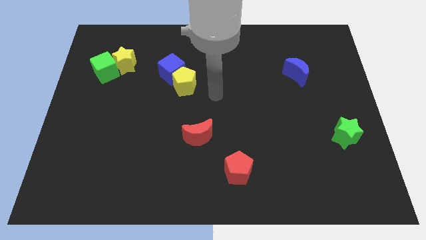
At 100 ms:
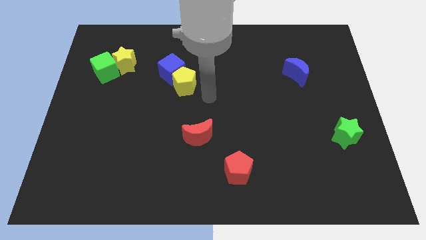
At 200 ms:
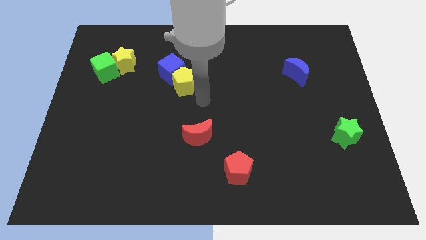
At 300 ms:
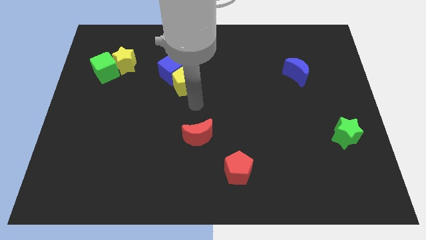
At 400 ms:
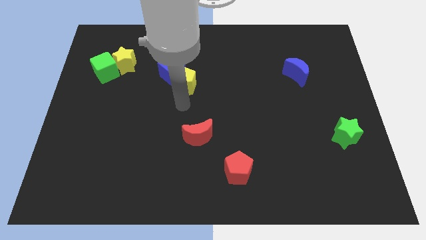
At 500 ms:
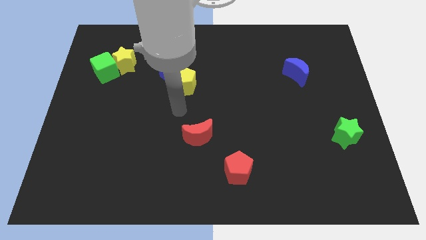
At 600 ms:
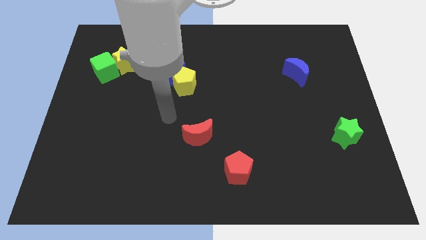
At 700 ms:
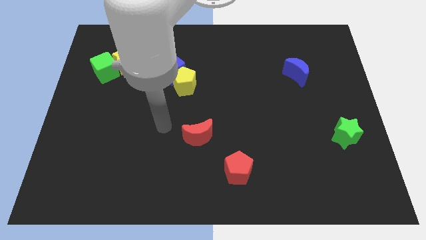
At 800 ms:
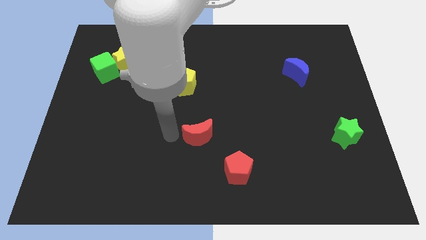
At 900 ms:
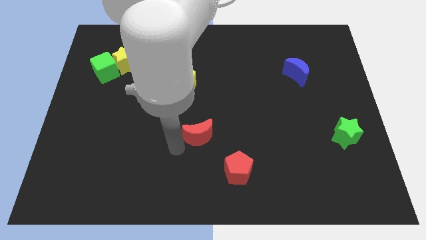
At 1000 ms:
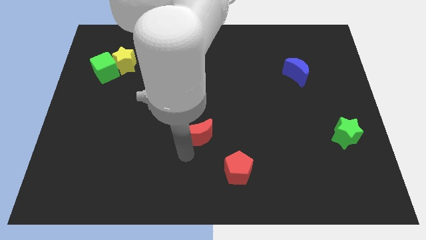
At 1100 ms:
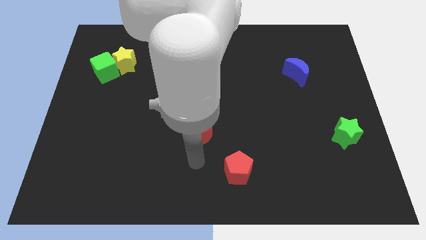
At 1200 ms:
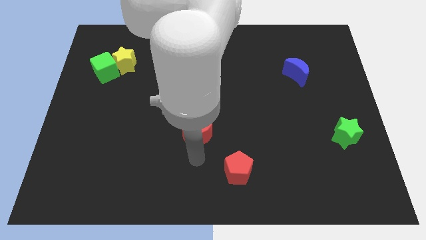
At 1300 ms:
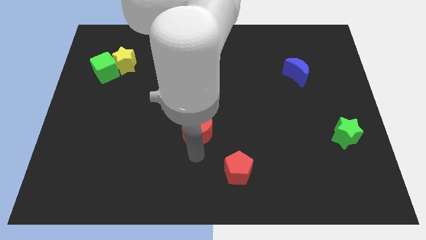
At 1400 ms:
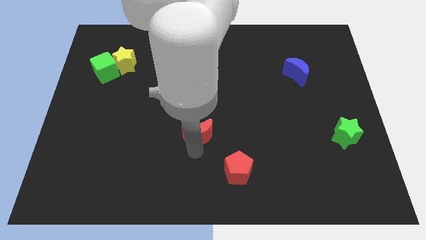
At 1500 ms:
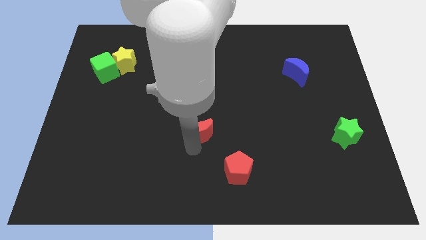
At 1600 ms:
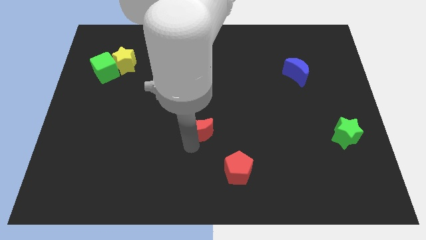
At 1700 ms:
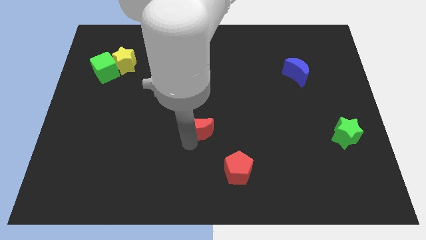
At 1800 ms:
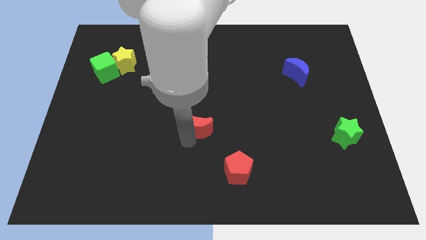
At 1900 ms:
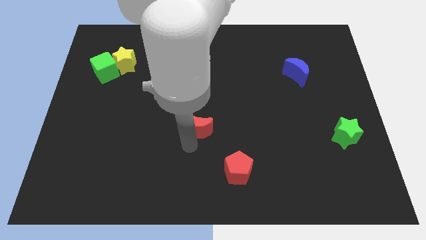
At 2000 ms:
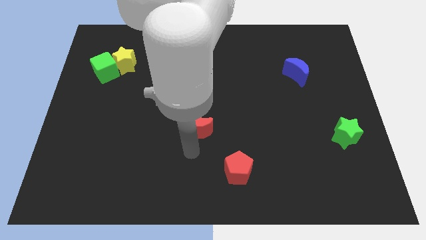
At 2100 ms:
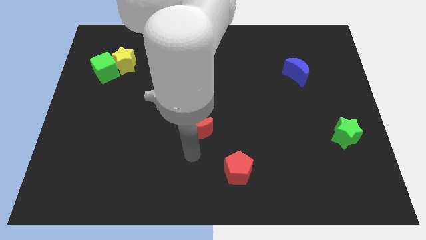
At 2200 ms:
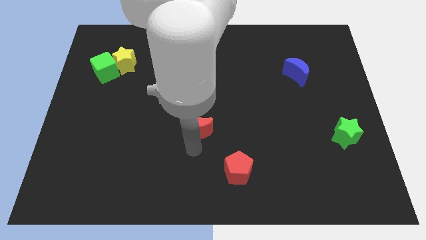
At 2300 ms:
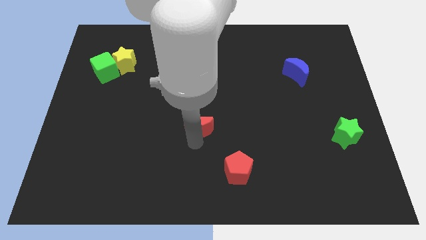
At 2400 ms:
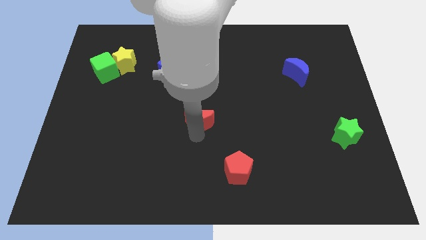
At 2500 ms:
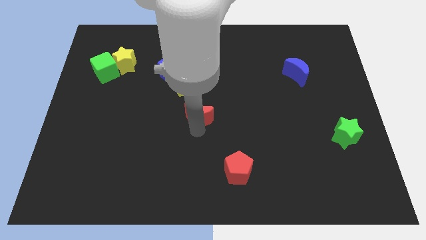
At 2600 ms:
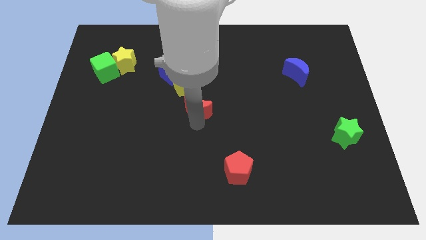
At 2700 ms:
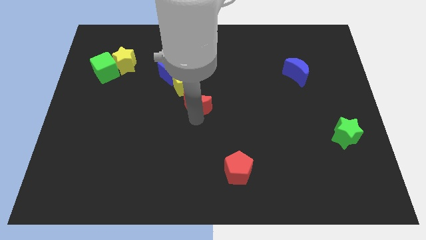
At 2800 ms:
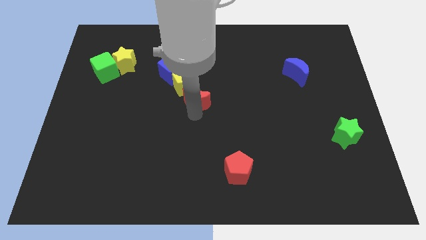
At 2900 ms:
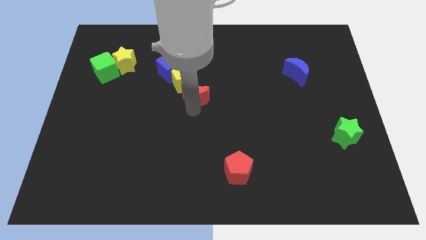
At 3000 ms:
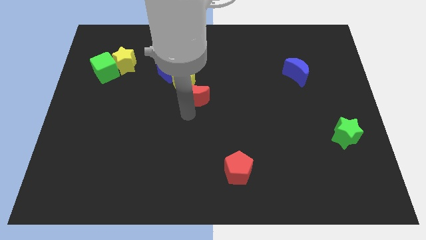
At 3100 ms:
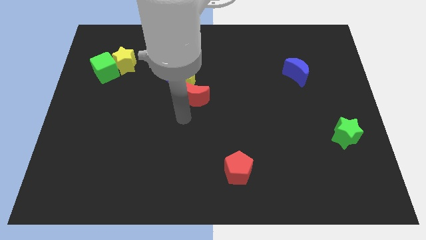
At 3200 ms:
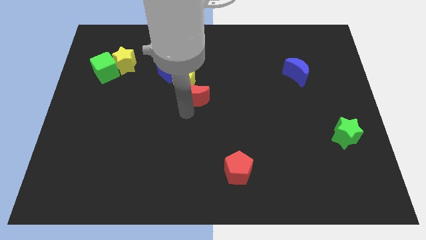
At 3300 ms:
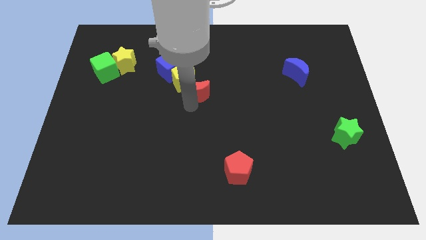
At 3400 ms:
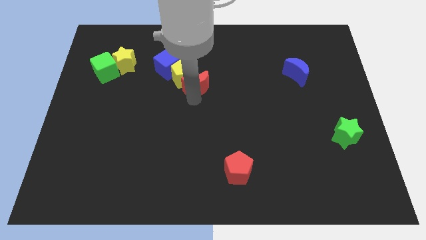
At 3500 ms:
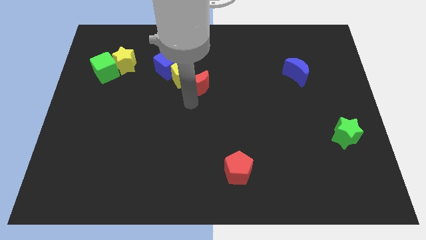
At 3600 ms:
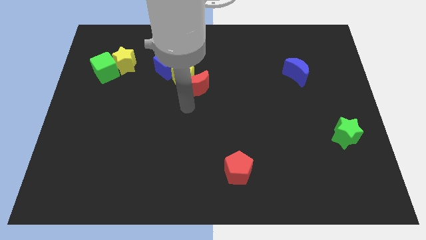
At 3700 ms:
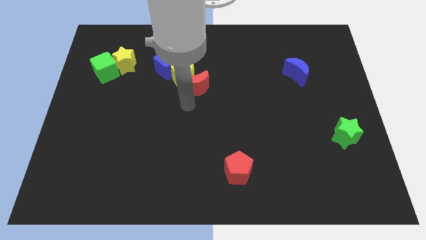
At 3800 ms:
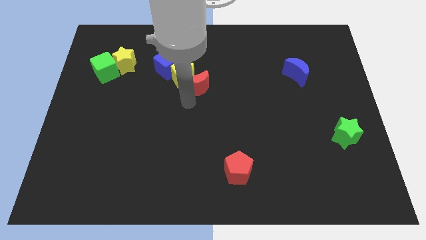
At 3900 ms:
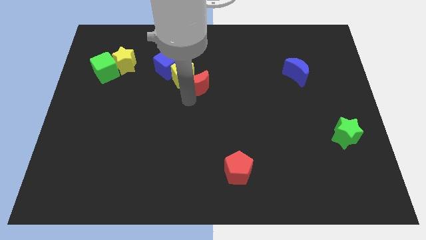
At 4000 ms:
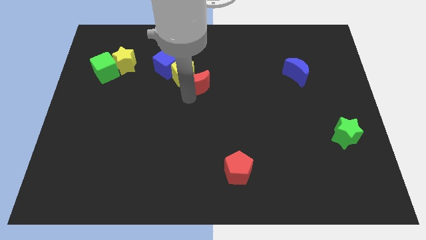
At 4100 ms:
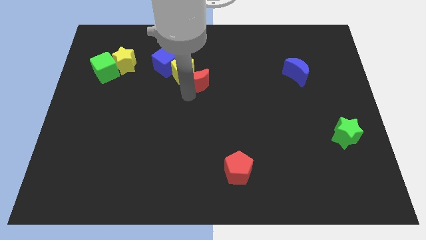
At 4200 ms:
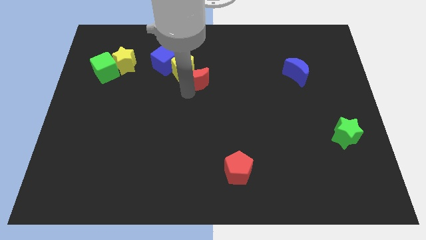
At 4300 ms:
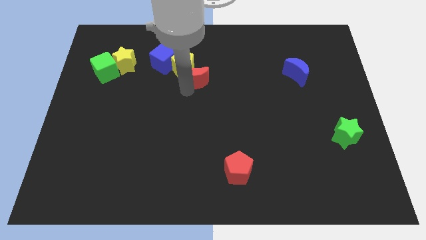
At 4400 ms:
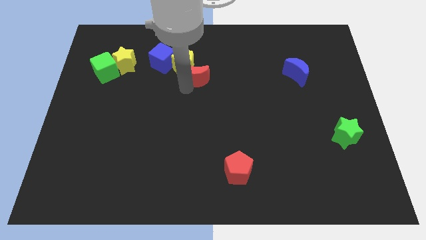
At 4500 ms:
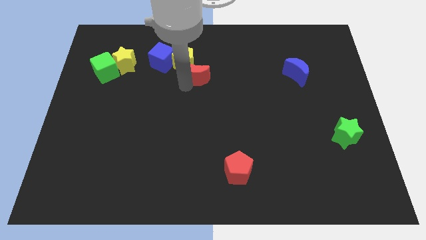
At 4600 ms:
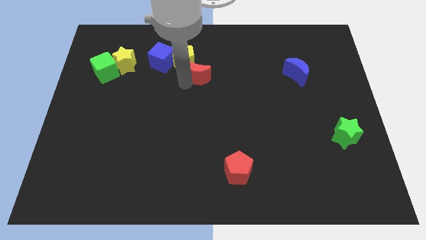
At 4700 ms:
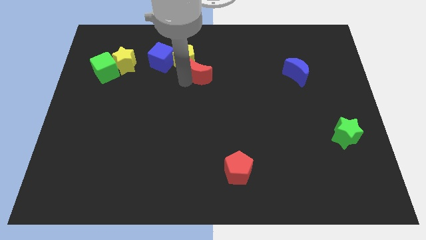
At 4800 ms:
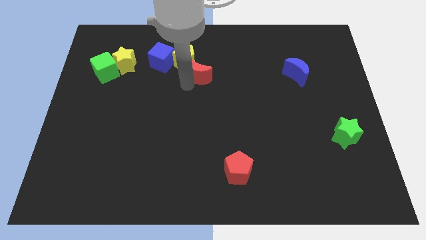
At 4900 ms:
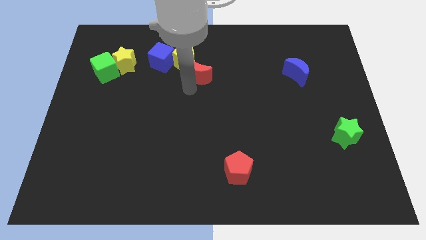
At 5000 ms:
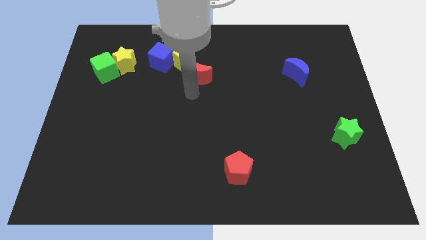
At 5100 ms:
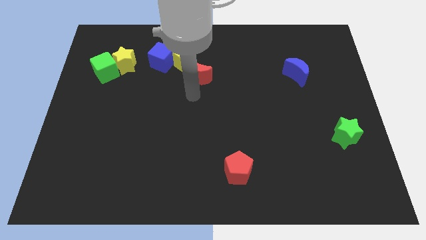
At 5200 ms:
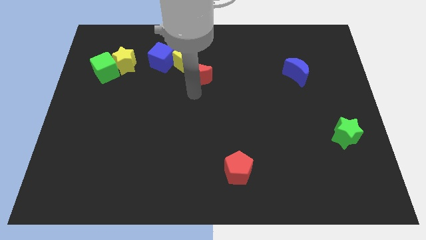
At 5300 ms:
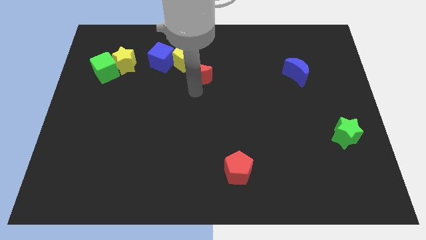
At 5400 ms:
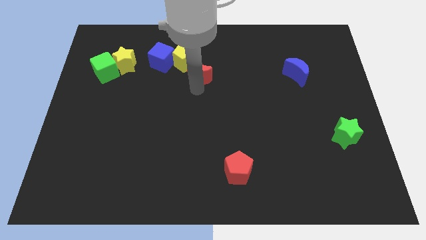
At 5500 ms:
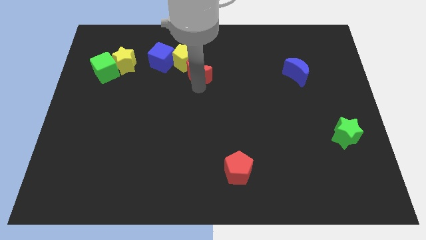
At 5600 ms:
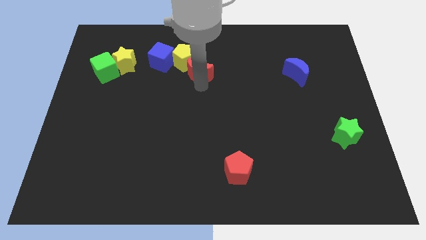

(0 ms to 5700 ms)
put the red moon right of the blue cube

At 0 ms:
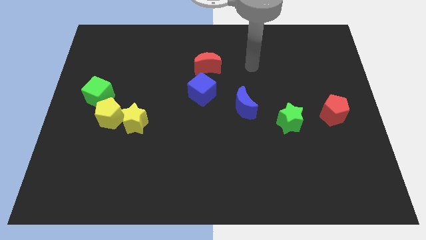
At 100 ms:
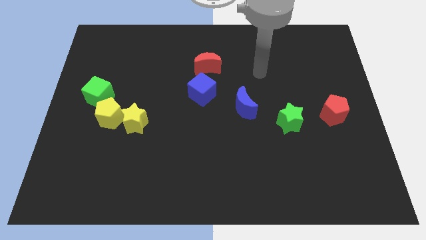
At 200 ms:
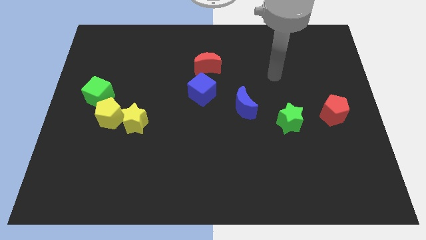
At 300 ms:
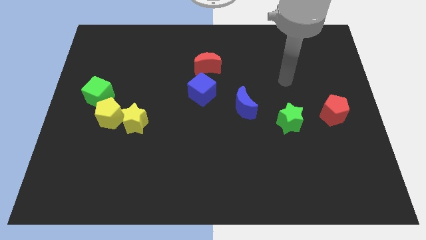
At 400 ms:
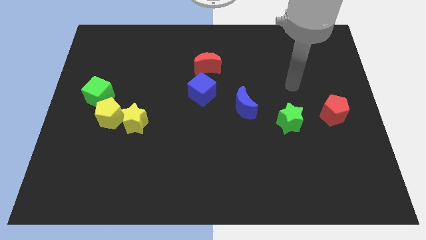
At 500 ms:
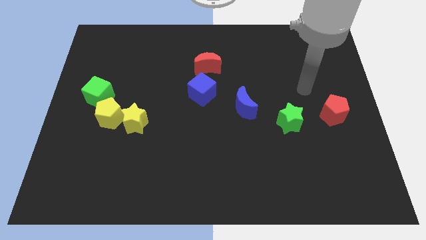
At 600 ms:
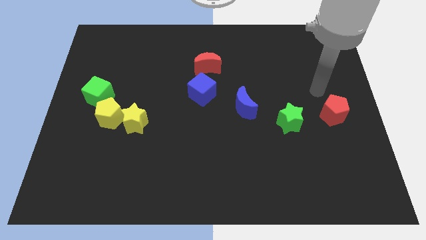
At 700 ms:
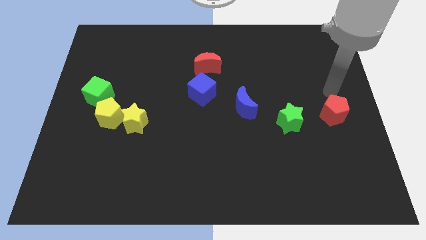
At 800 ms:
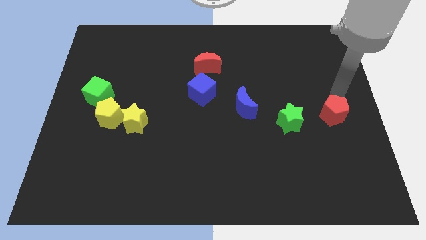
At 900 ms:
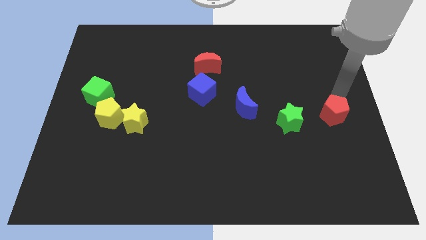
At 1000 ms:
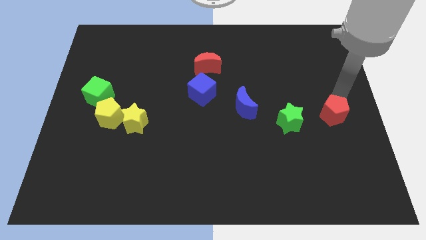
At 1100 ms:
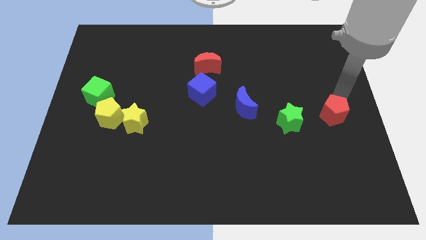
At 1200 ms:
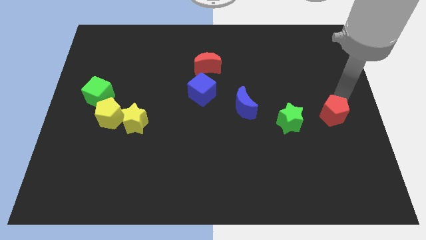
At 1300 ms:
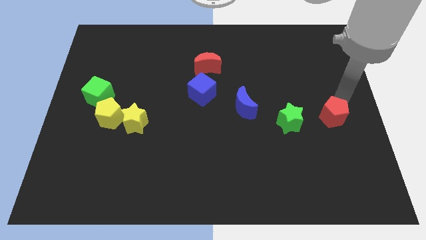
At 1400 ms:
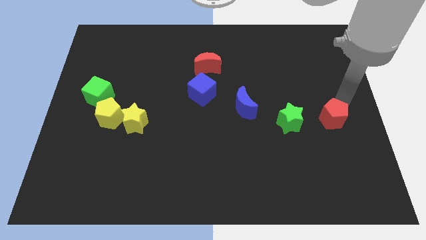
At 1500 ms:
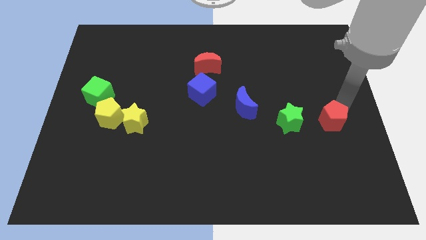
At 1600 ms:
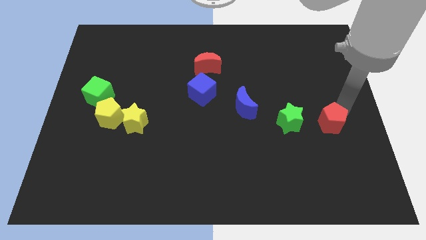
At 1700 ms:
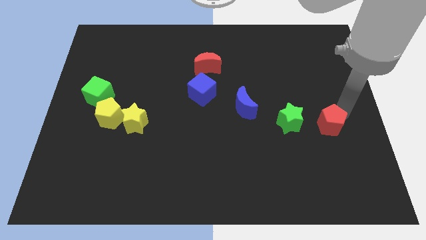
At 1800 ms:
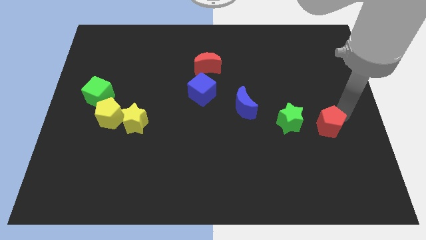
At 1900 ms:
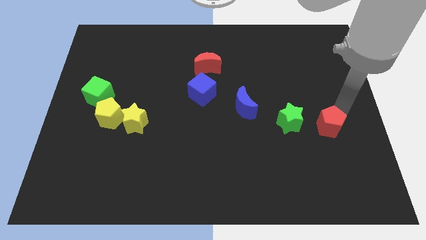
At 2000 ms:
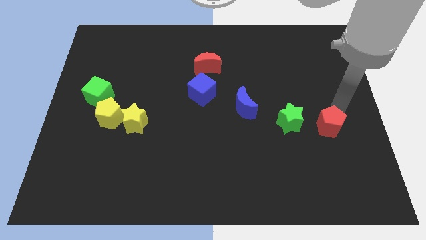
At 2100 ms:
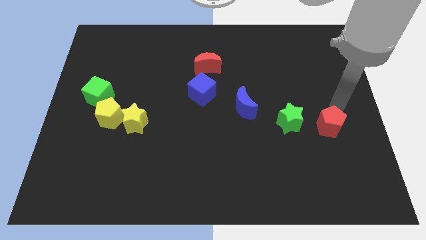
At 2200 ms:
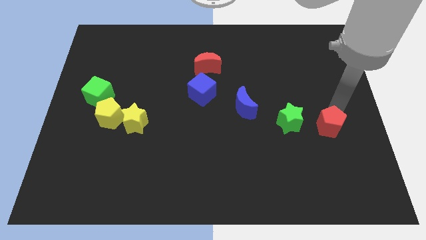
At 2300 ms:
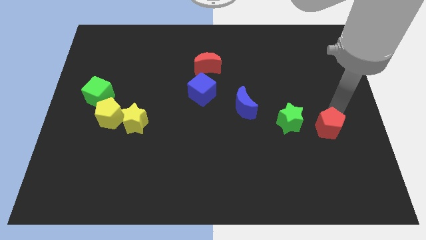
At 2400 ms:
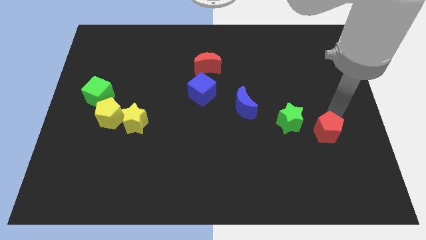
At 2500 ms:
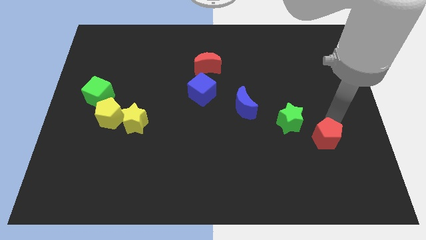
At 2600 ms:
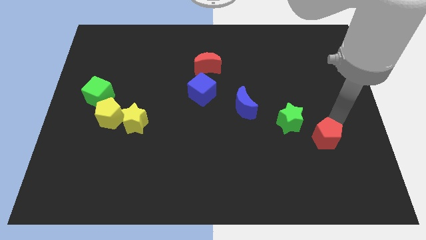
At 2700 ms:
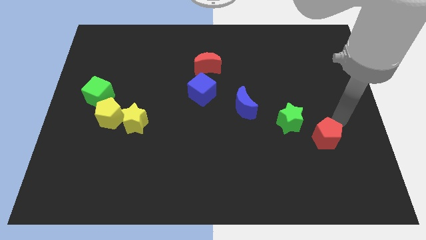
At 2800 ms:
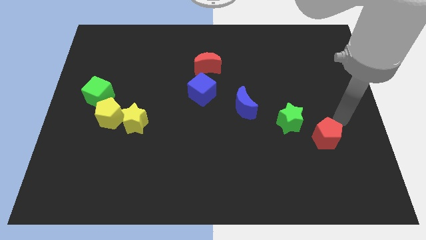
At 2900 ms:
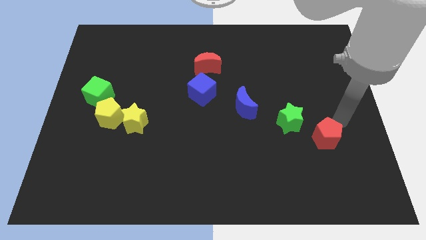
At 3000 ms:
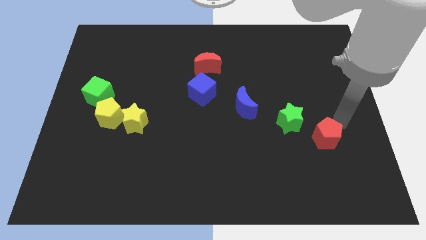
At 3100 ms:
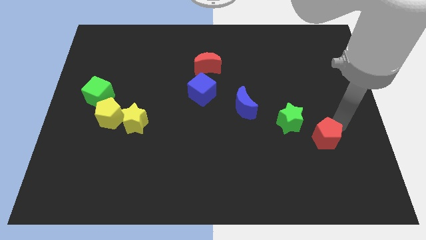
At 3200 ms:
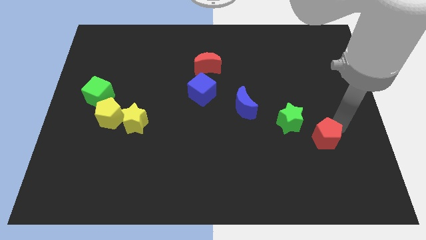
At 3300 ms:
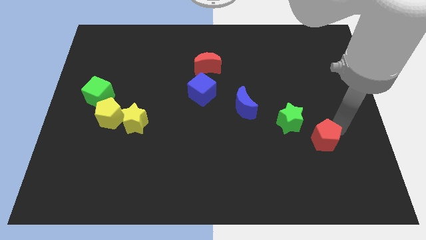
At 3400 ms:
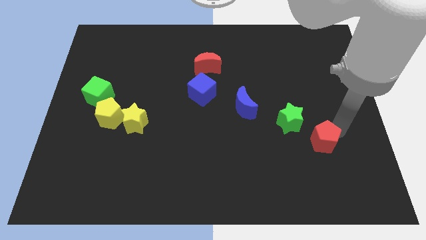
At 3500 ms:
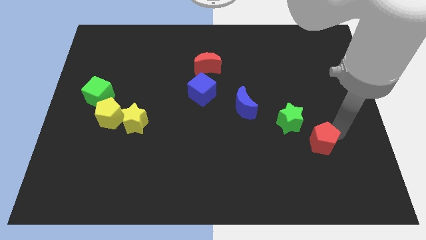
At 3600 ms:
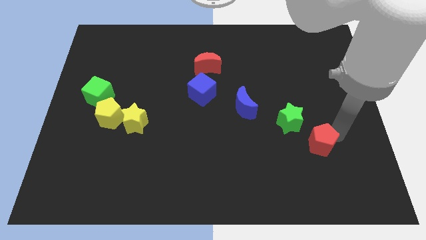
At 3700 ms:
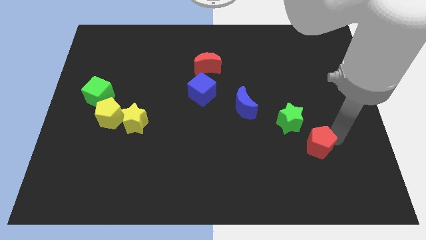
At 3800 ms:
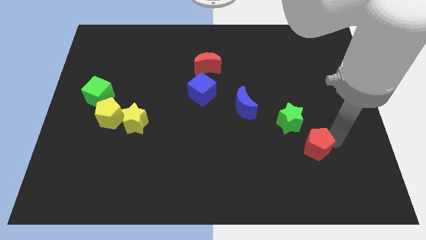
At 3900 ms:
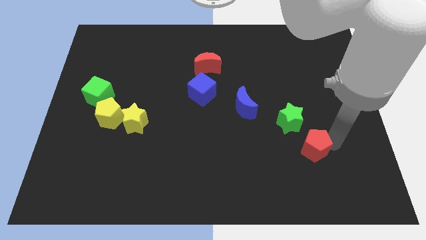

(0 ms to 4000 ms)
move the red pentagon to the bottom of the green star
